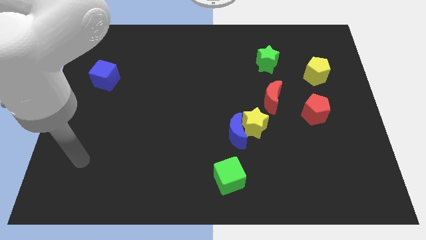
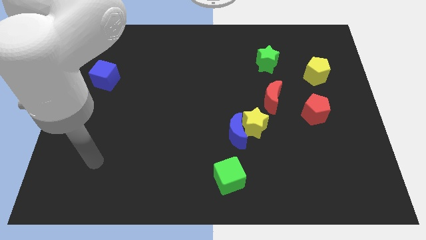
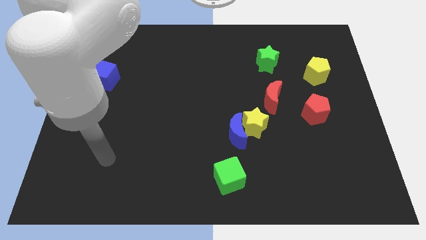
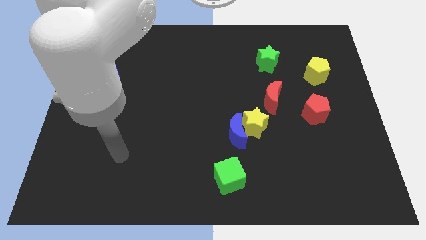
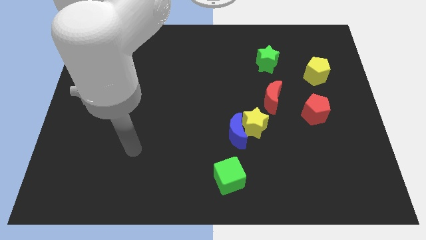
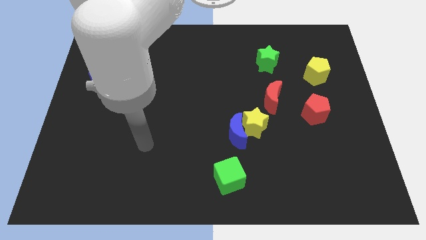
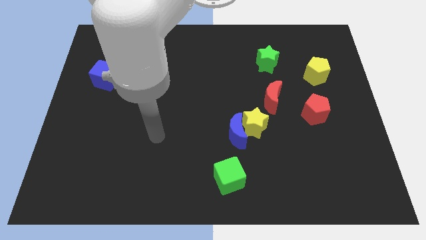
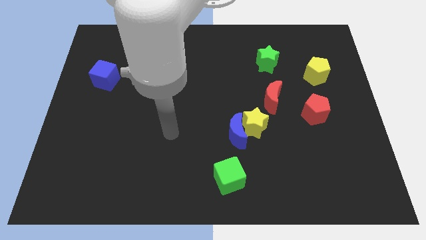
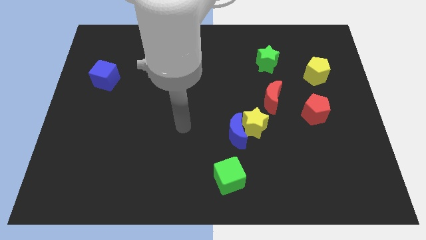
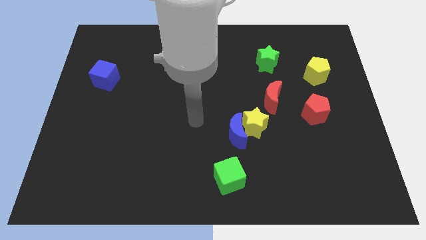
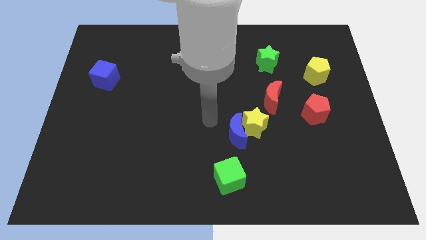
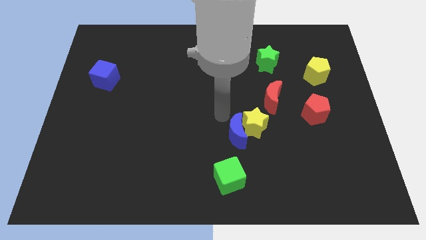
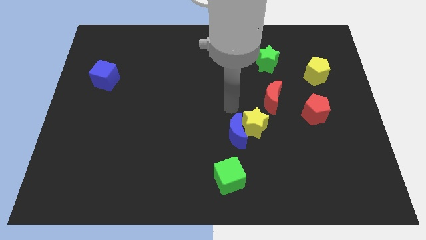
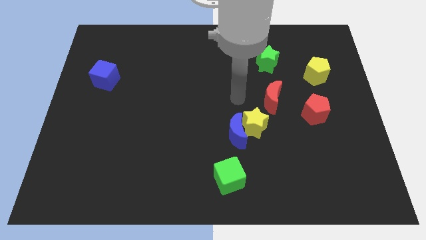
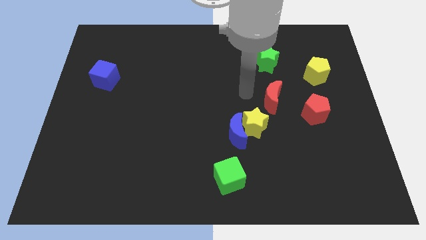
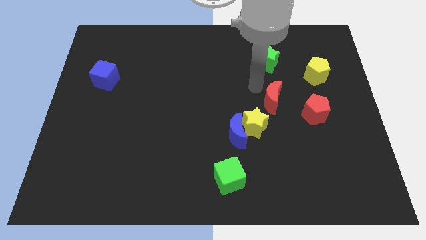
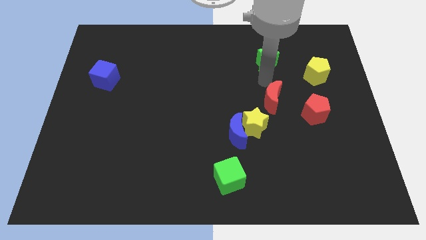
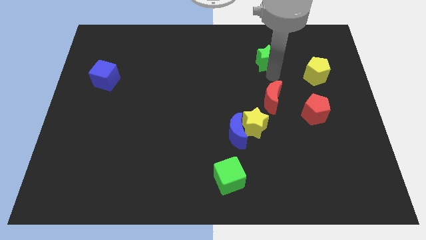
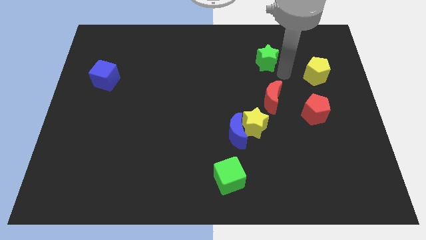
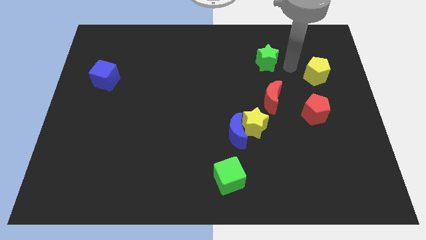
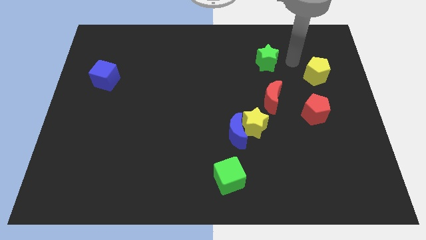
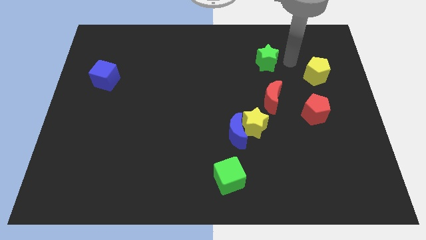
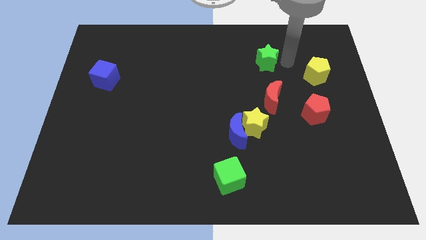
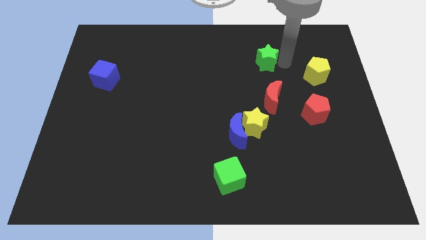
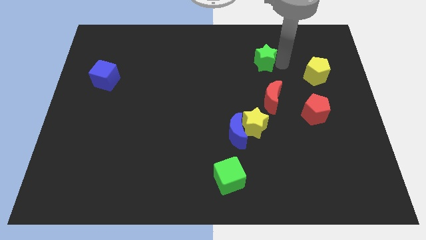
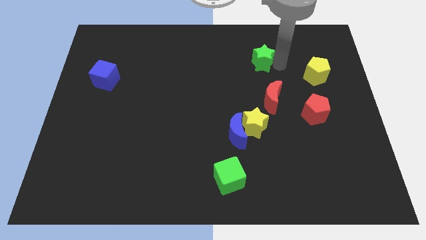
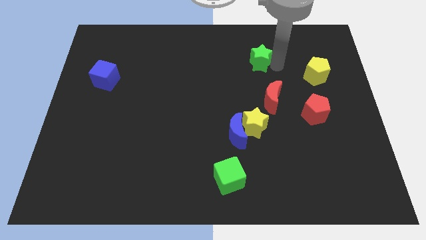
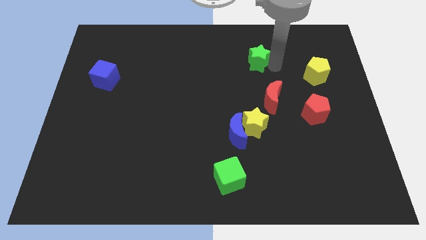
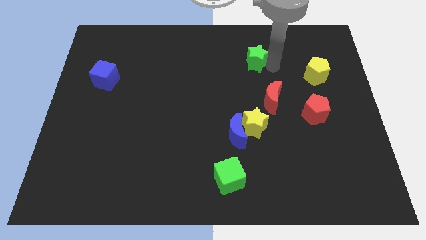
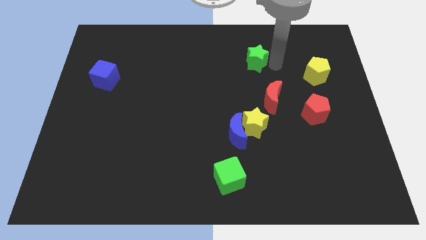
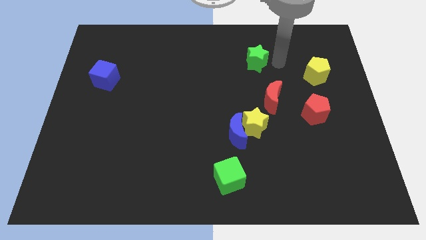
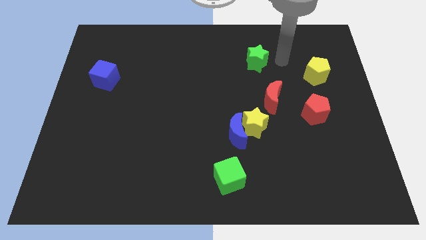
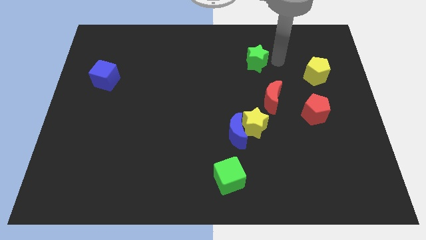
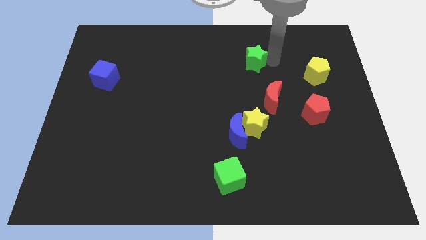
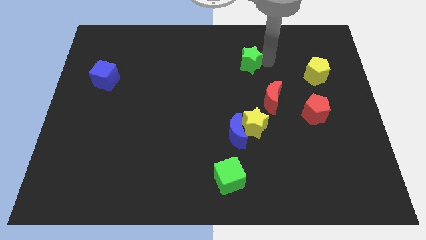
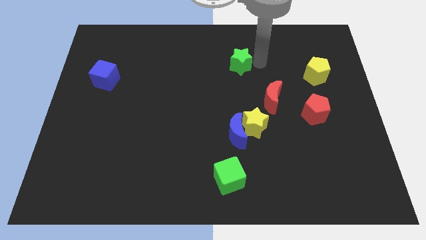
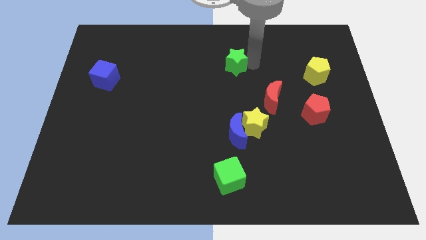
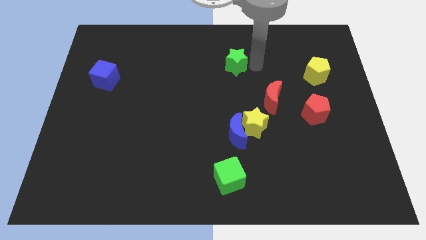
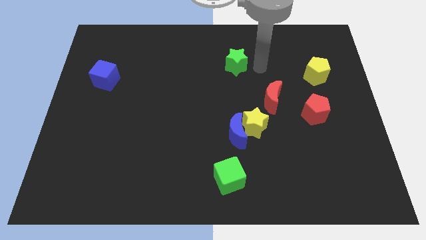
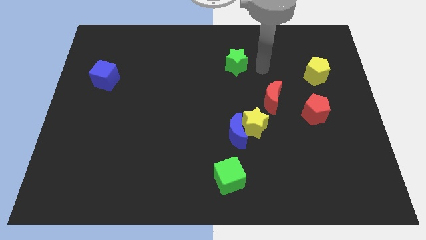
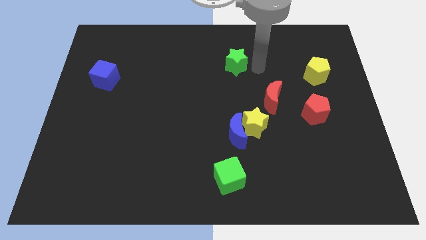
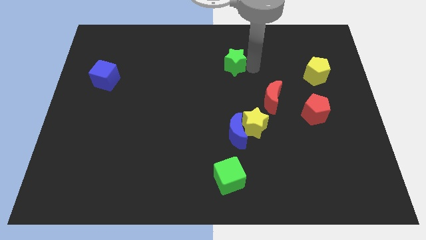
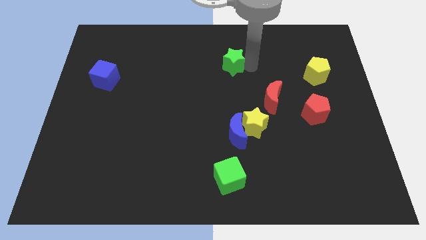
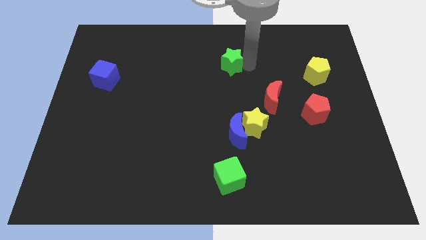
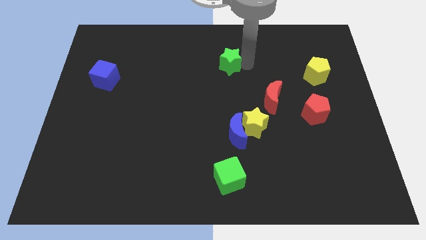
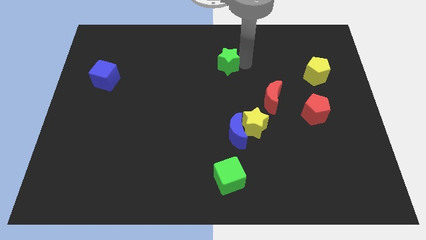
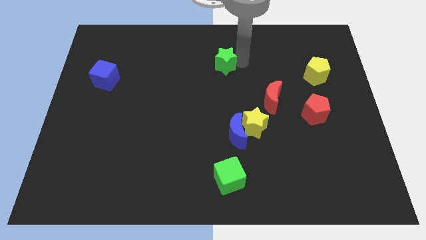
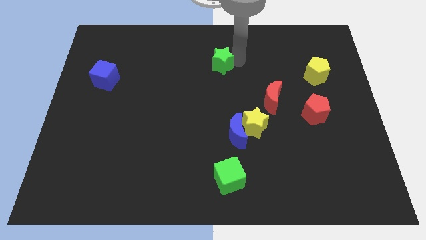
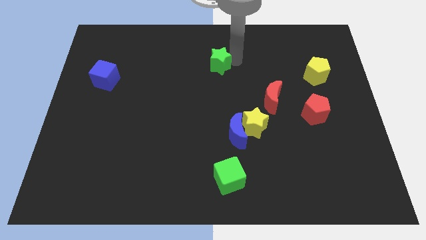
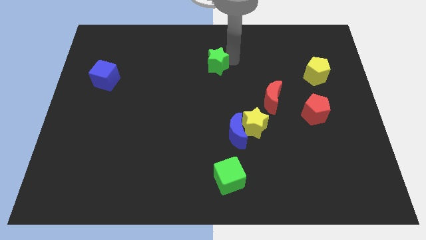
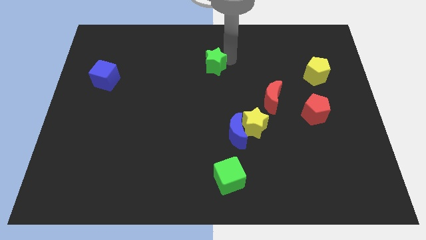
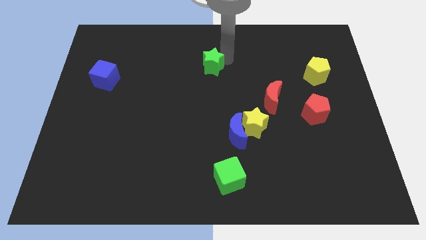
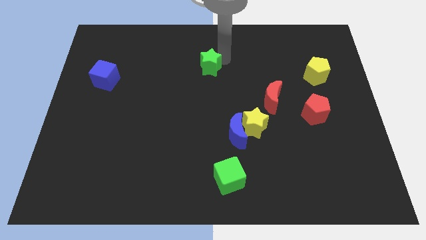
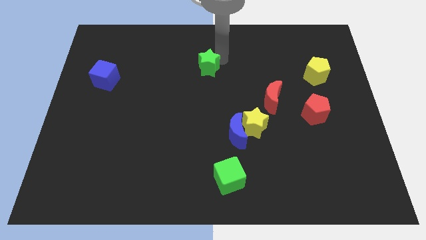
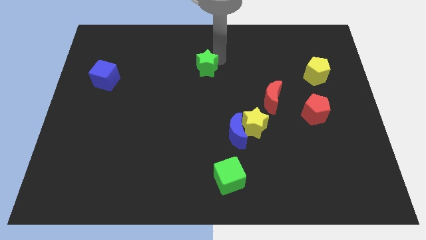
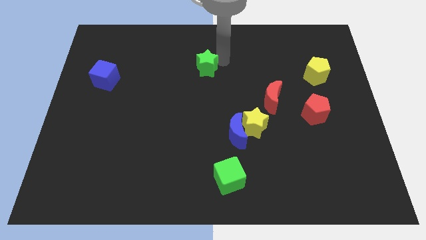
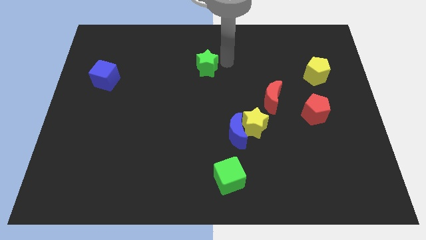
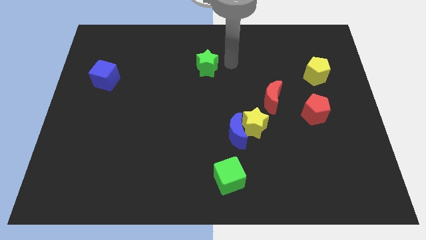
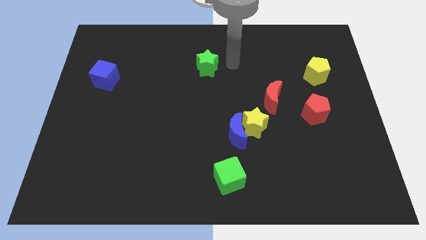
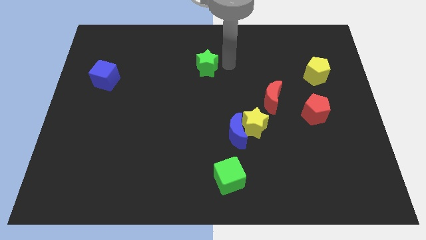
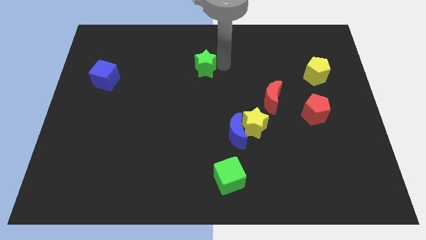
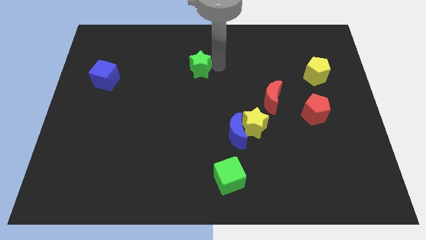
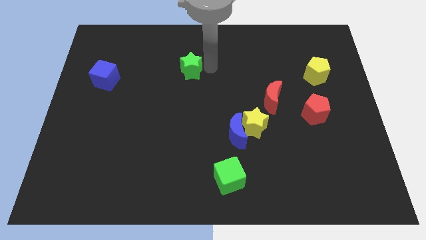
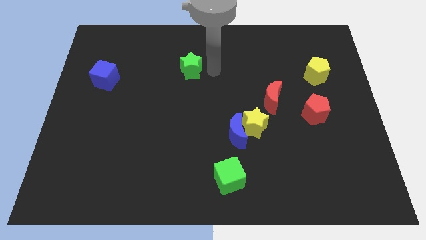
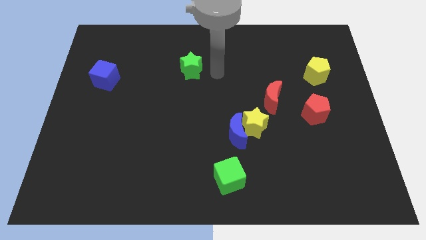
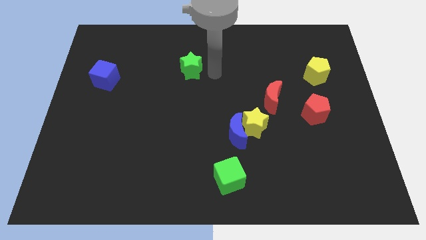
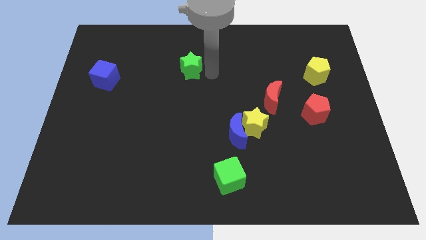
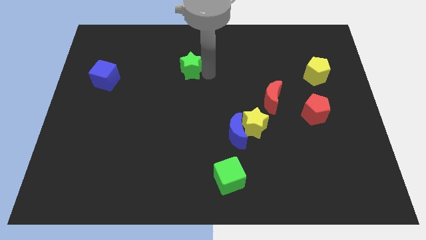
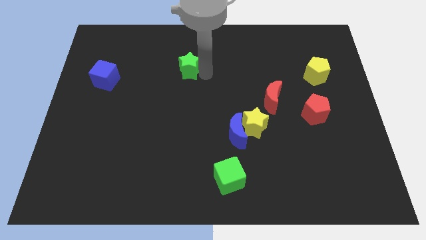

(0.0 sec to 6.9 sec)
move the green star to the left

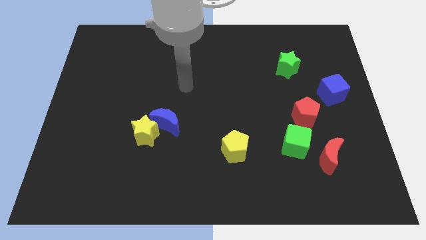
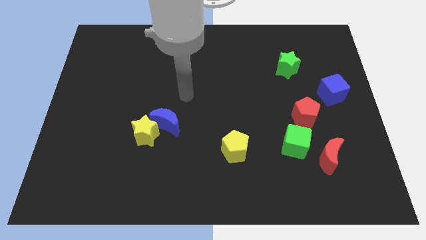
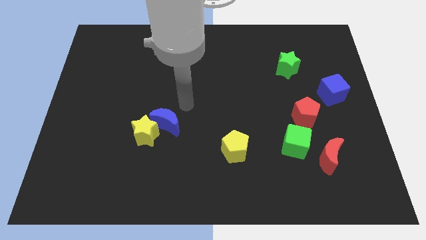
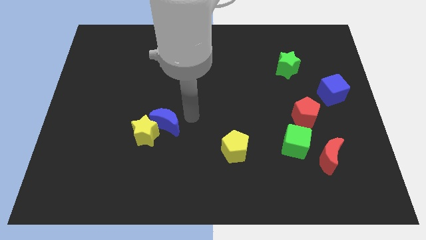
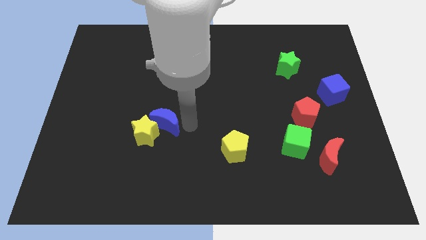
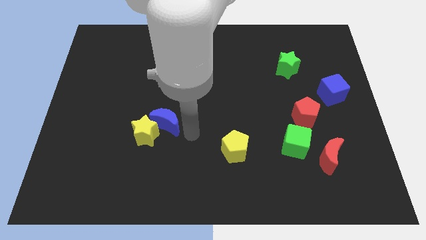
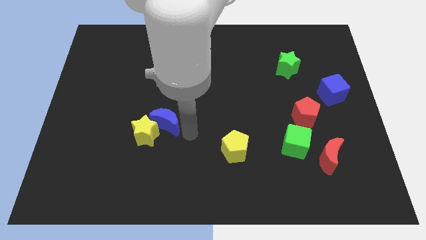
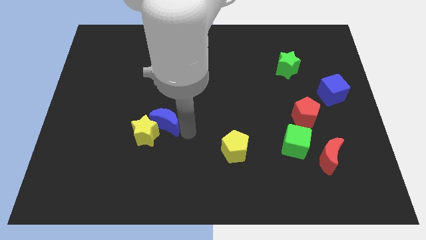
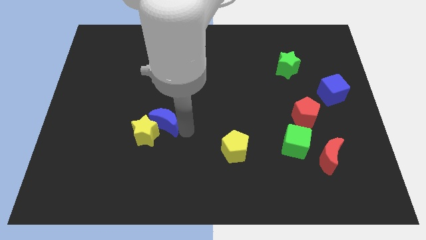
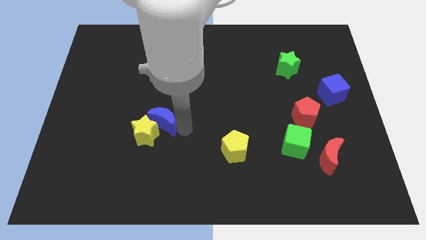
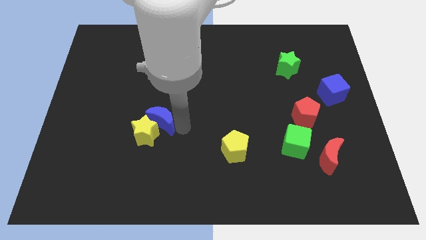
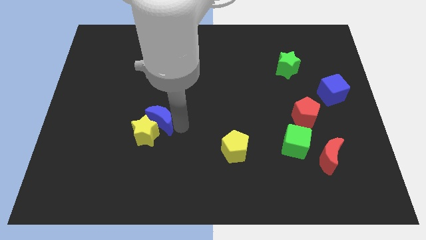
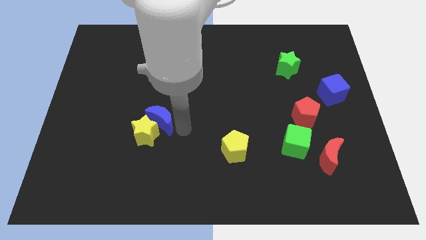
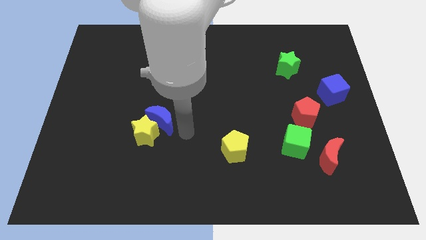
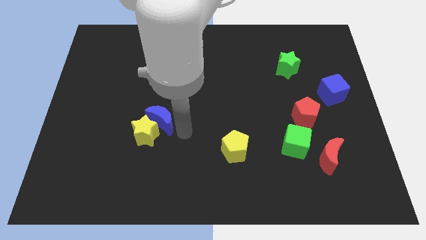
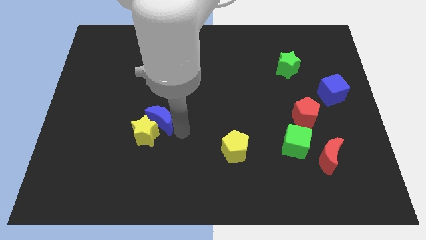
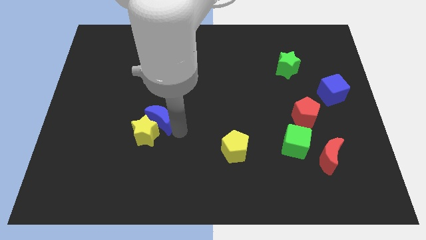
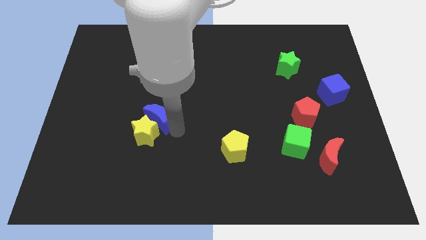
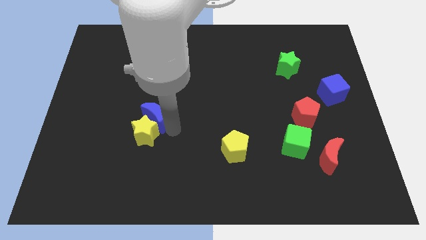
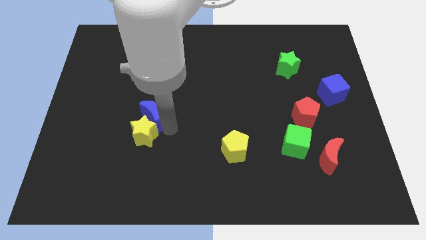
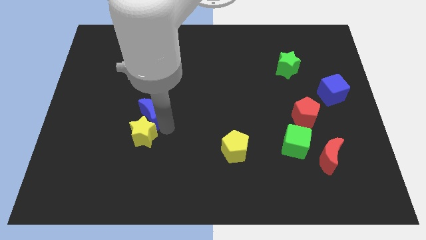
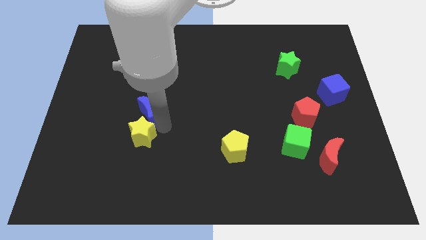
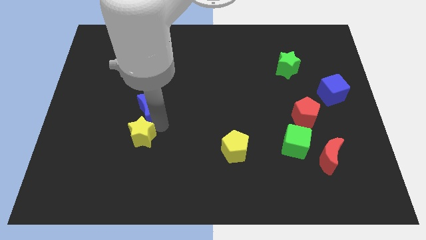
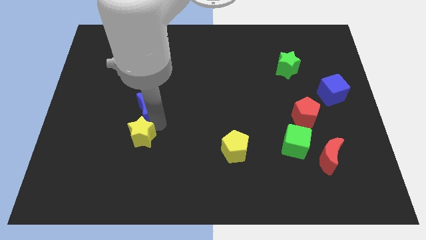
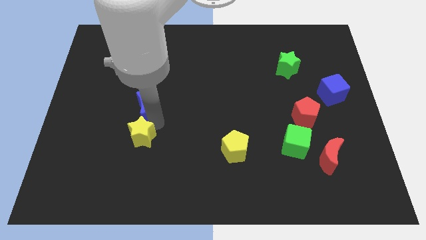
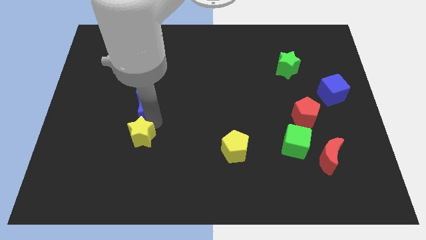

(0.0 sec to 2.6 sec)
slide the blue moon diagonally upwards and to the left a bit
